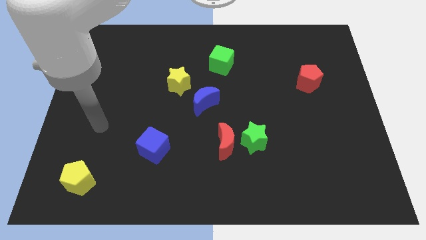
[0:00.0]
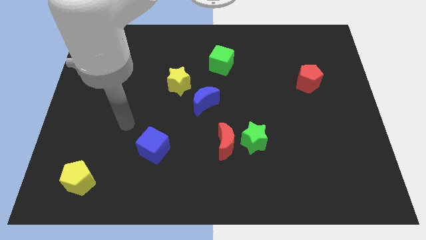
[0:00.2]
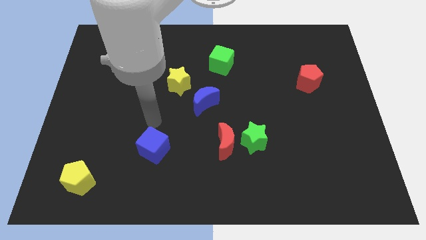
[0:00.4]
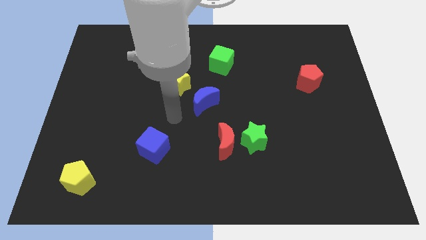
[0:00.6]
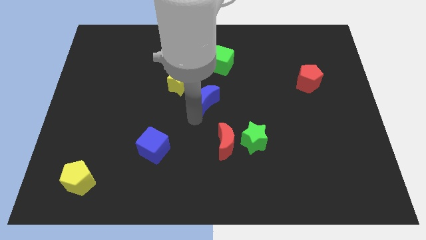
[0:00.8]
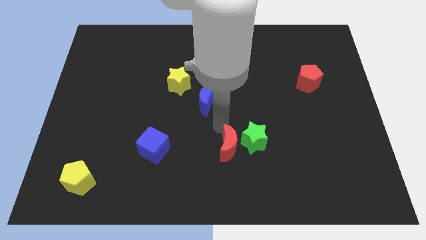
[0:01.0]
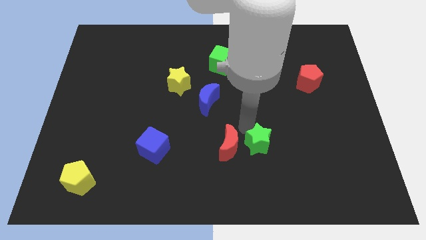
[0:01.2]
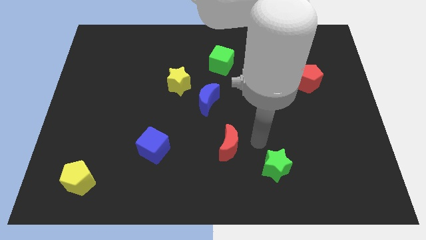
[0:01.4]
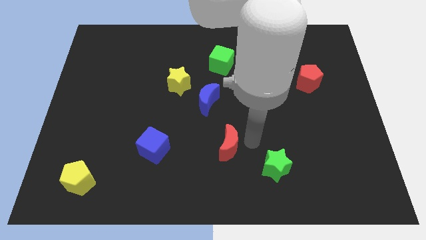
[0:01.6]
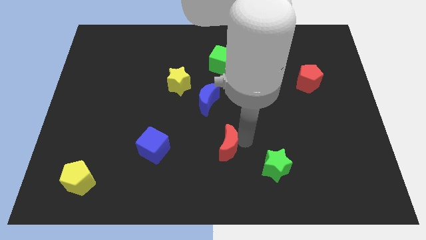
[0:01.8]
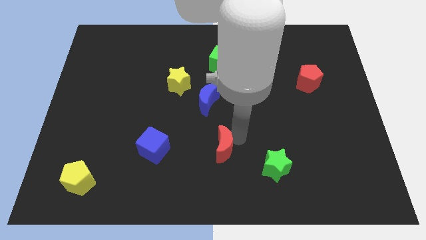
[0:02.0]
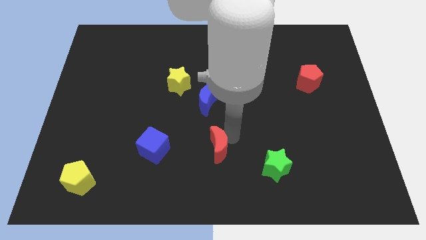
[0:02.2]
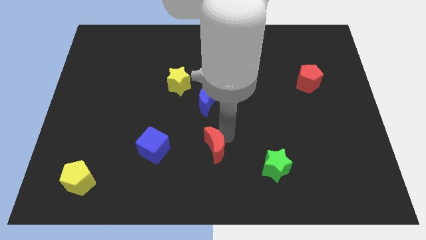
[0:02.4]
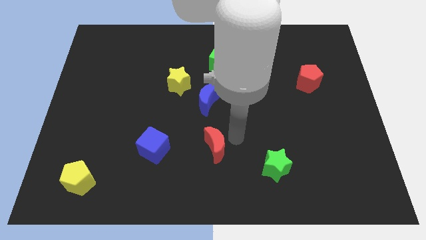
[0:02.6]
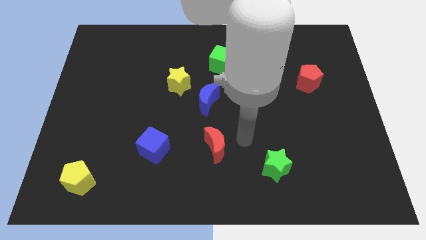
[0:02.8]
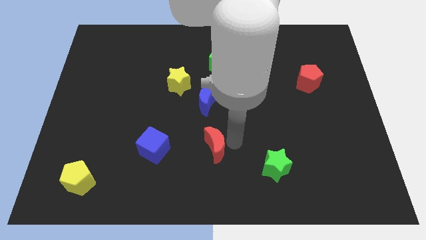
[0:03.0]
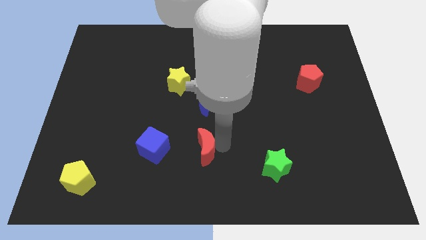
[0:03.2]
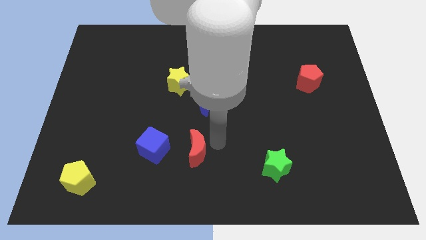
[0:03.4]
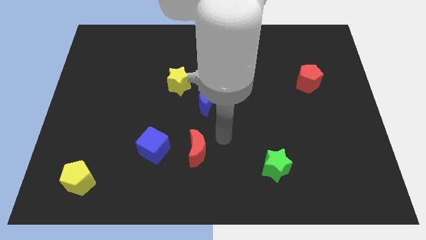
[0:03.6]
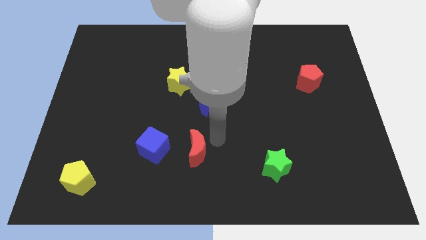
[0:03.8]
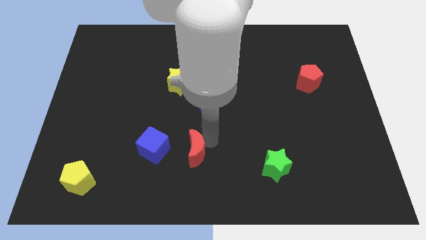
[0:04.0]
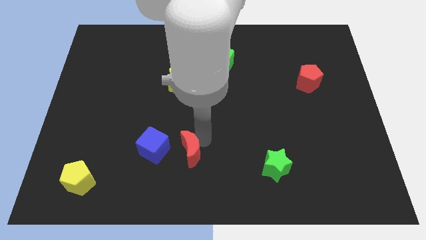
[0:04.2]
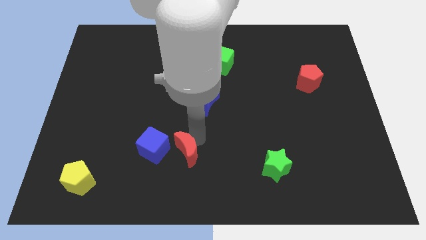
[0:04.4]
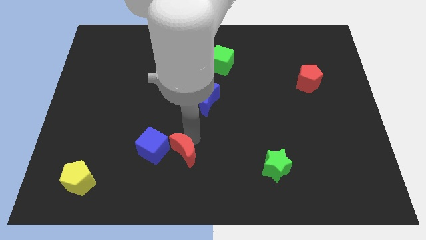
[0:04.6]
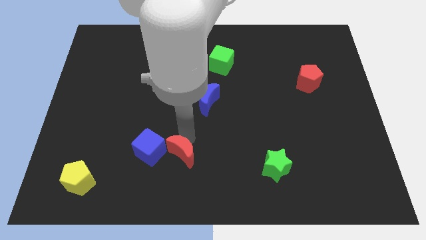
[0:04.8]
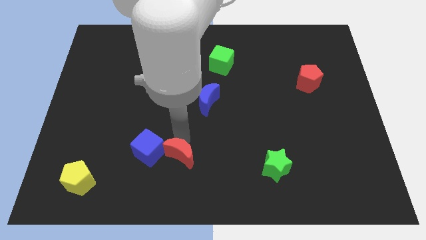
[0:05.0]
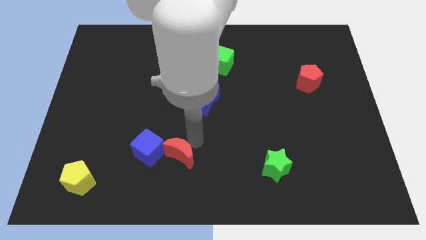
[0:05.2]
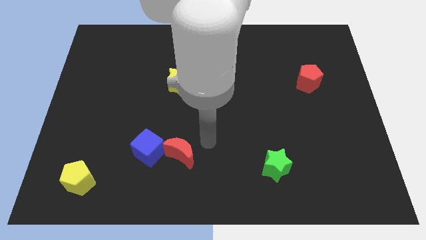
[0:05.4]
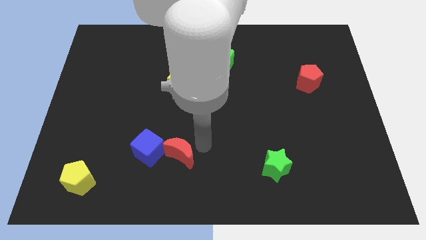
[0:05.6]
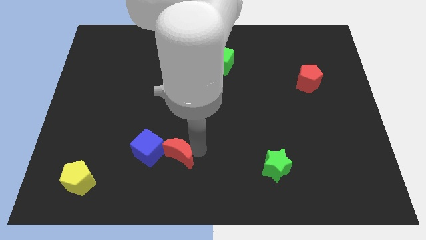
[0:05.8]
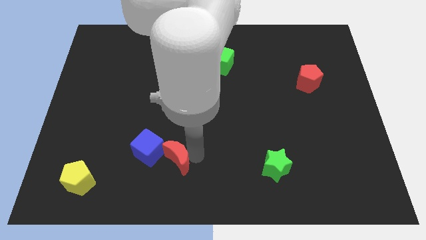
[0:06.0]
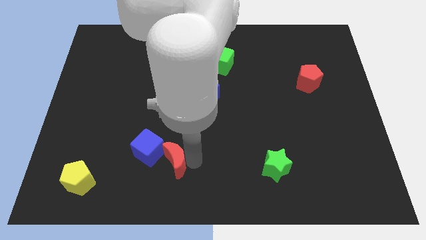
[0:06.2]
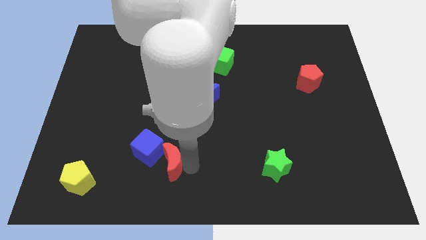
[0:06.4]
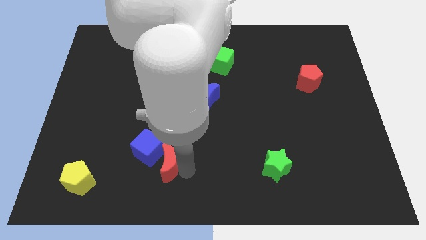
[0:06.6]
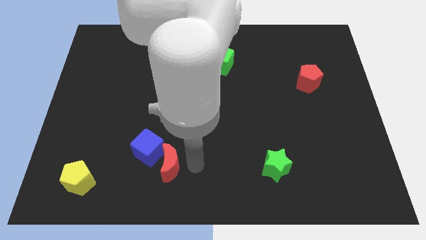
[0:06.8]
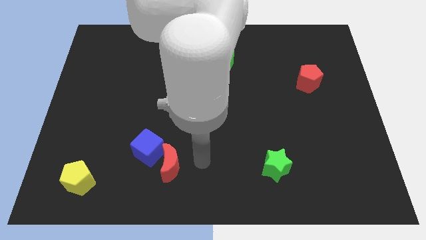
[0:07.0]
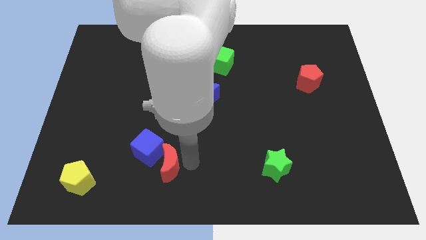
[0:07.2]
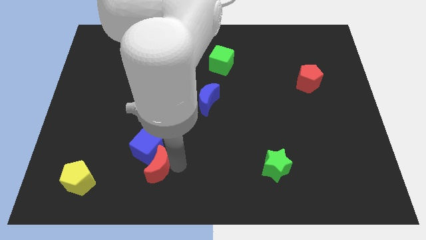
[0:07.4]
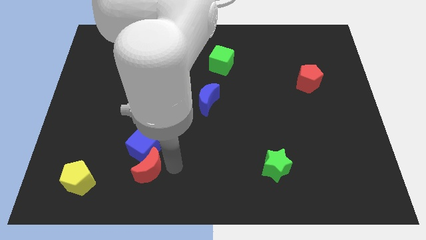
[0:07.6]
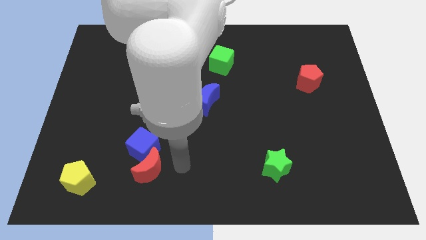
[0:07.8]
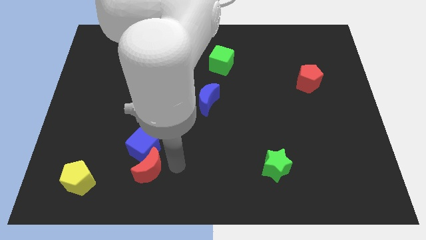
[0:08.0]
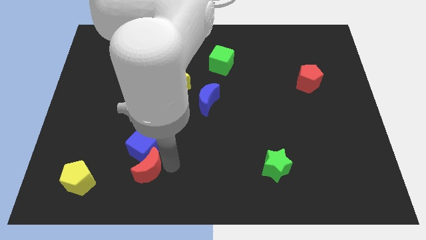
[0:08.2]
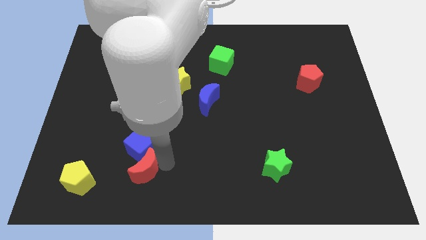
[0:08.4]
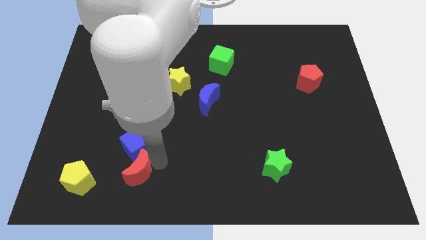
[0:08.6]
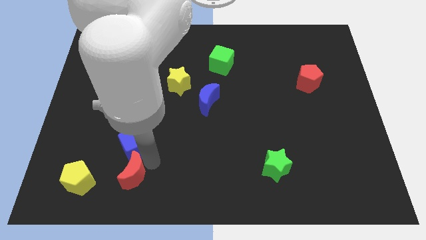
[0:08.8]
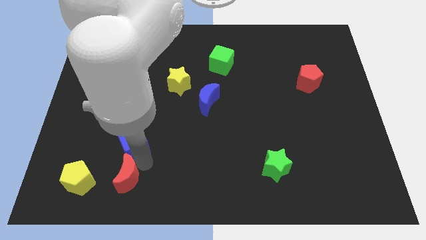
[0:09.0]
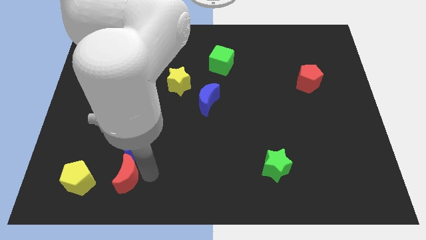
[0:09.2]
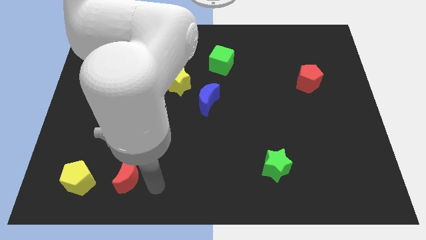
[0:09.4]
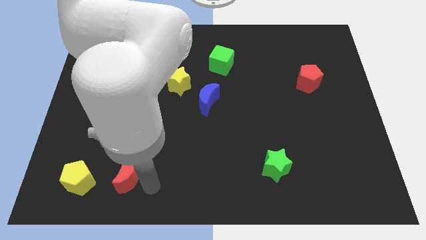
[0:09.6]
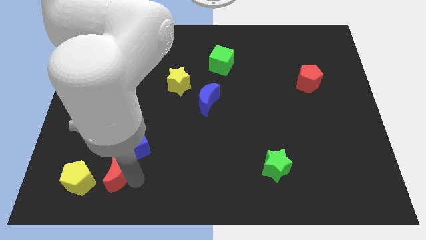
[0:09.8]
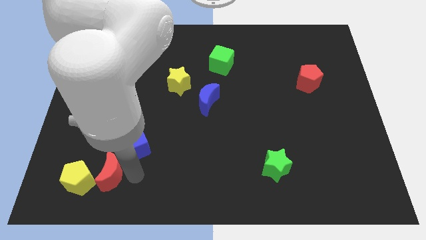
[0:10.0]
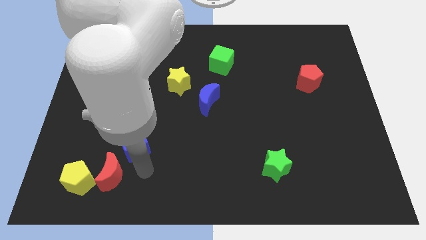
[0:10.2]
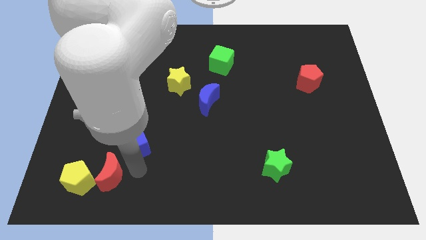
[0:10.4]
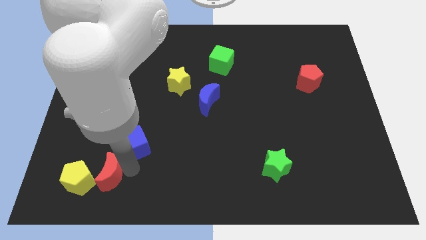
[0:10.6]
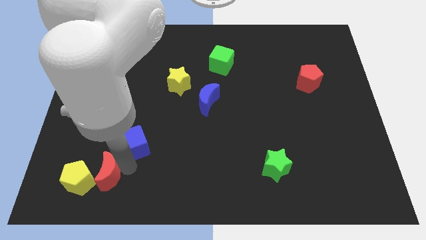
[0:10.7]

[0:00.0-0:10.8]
move the red moon to the yellow pentagon

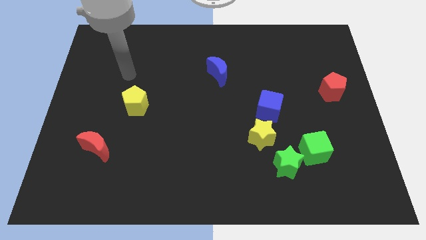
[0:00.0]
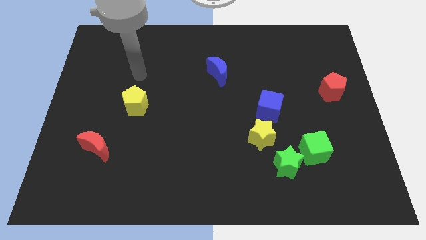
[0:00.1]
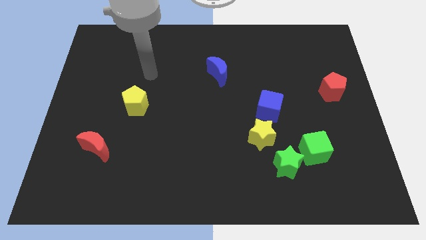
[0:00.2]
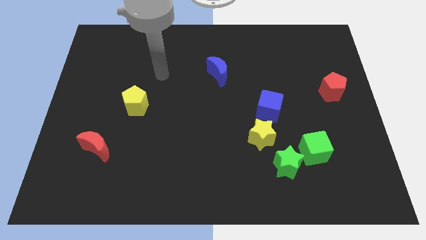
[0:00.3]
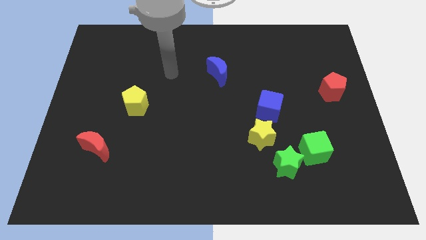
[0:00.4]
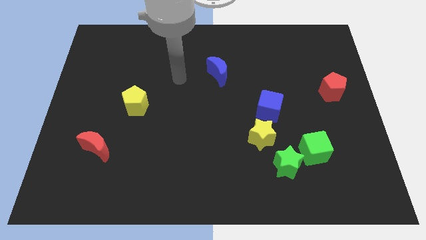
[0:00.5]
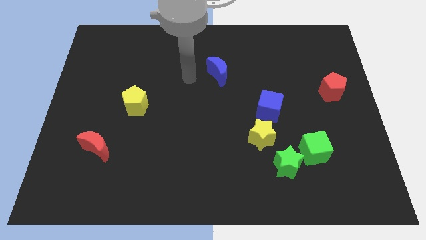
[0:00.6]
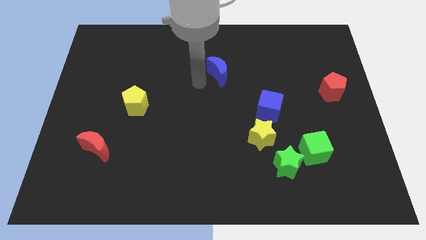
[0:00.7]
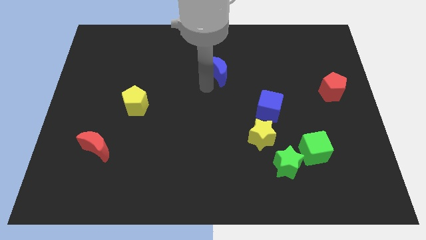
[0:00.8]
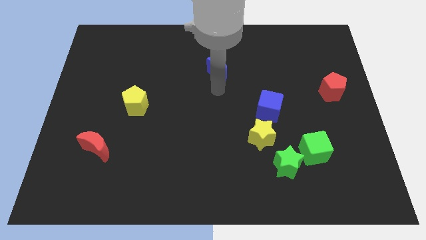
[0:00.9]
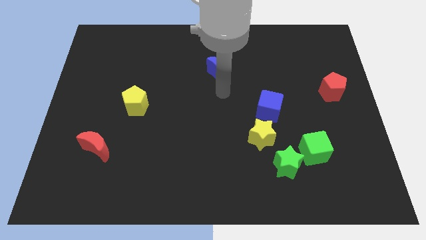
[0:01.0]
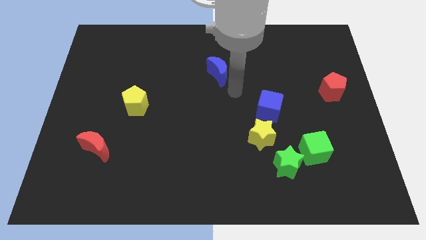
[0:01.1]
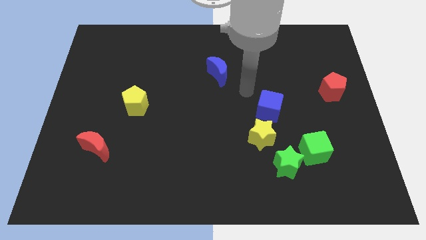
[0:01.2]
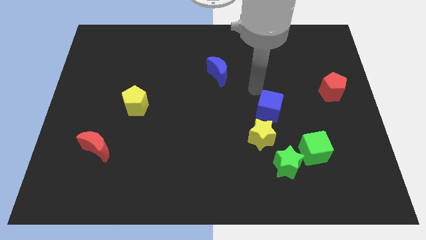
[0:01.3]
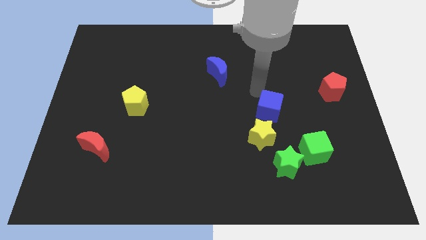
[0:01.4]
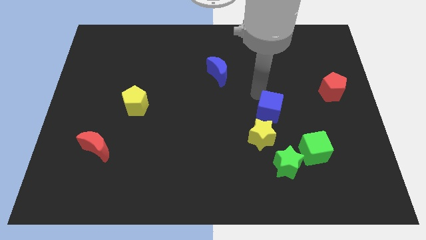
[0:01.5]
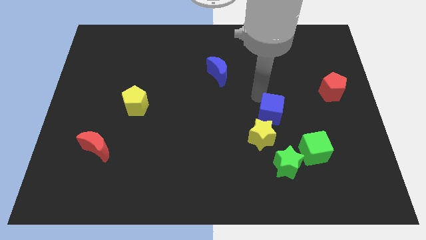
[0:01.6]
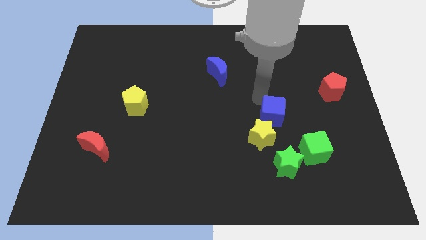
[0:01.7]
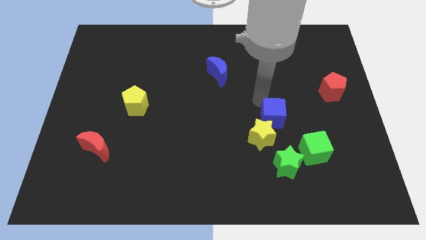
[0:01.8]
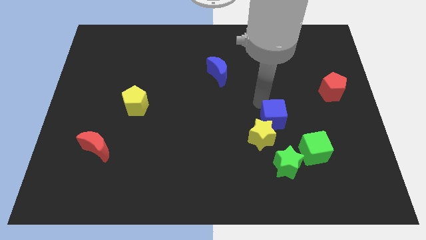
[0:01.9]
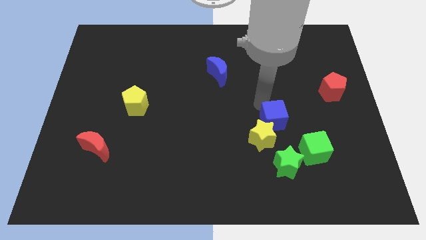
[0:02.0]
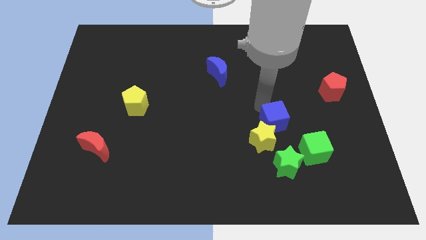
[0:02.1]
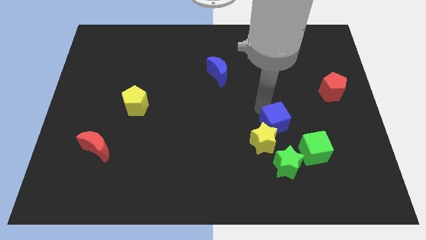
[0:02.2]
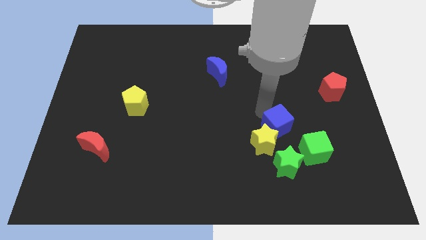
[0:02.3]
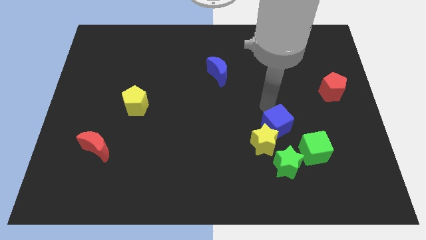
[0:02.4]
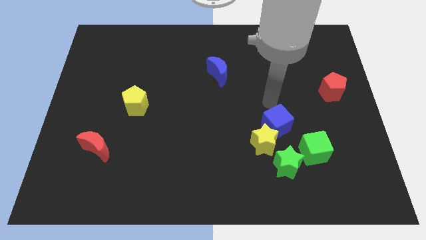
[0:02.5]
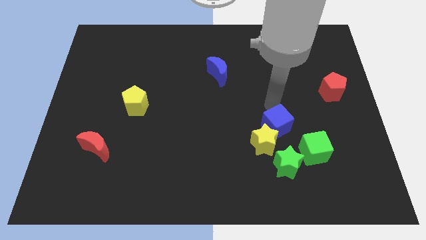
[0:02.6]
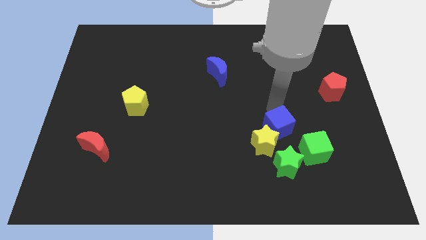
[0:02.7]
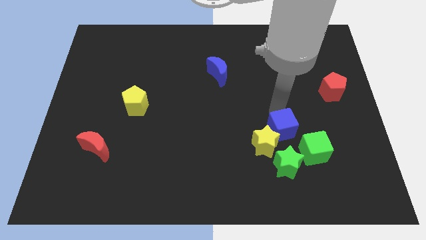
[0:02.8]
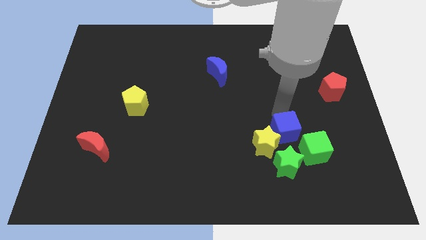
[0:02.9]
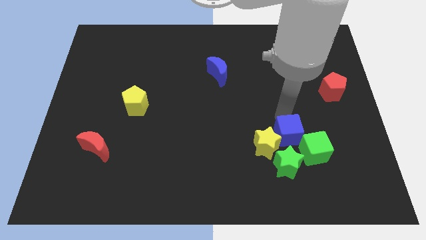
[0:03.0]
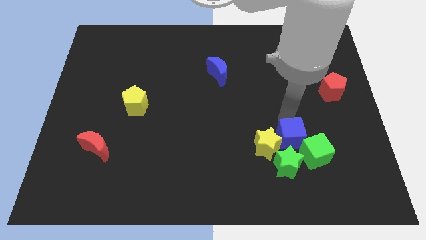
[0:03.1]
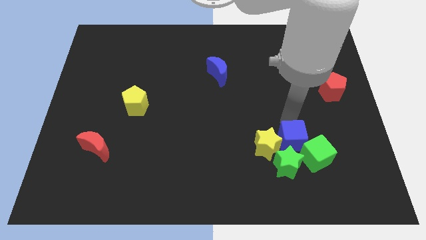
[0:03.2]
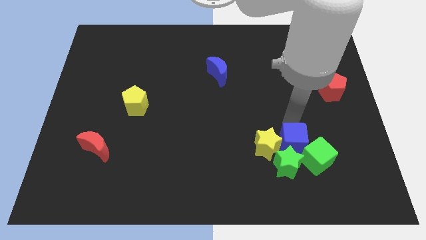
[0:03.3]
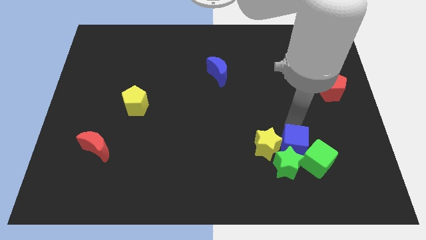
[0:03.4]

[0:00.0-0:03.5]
move the blue cube next to the green star
